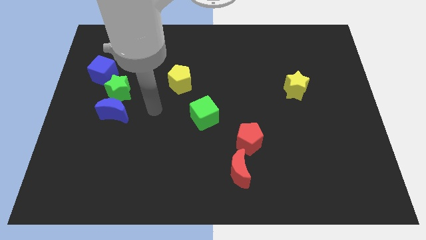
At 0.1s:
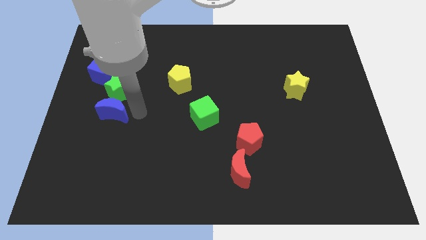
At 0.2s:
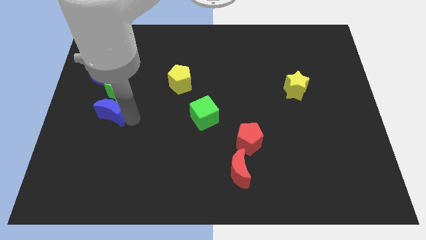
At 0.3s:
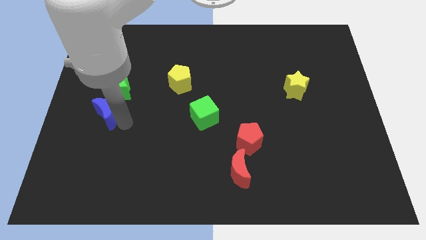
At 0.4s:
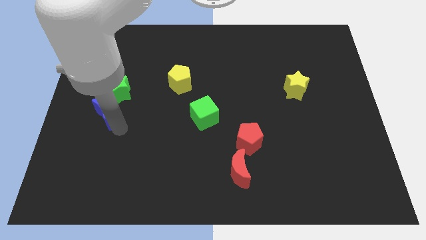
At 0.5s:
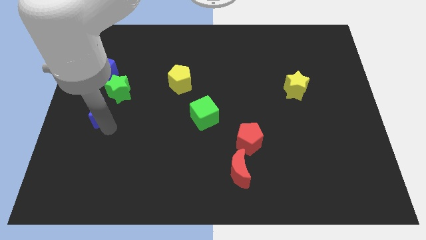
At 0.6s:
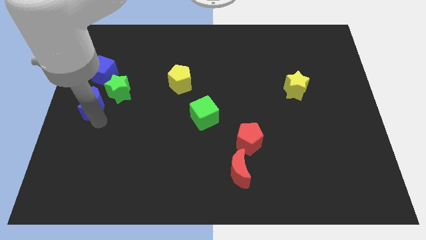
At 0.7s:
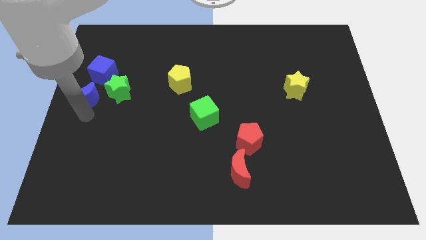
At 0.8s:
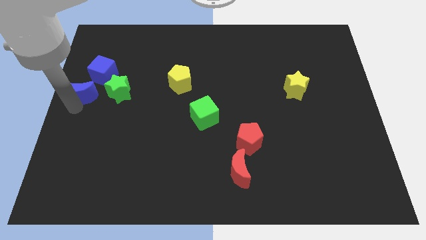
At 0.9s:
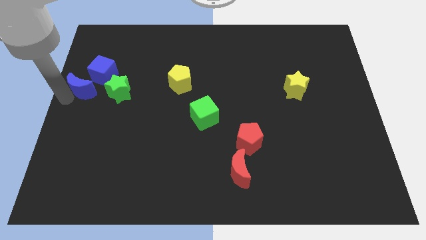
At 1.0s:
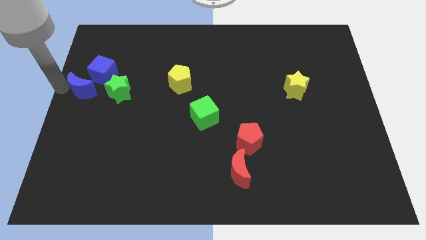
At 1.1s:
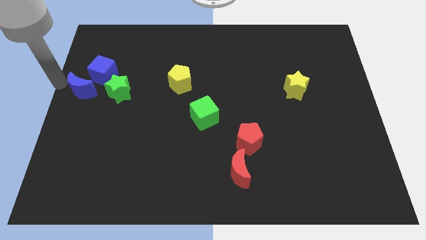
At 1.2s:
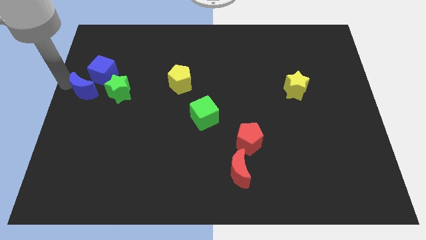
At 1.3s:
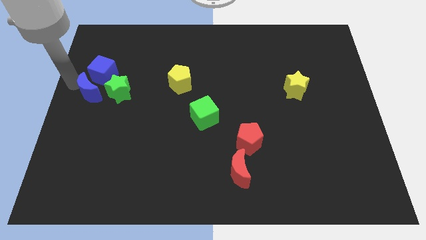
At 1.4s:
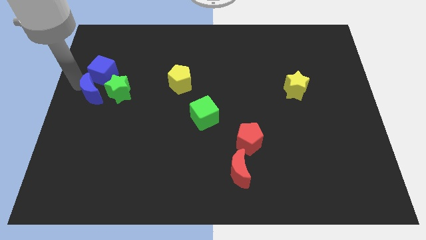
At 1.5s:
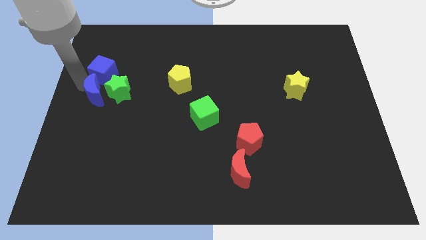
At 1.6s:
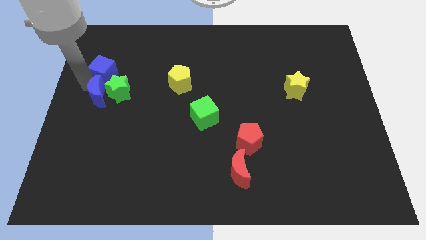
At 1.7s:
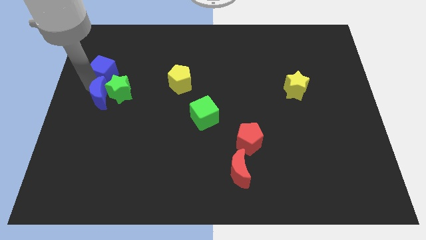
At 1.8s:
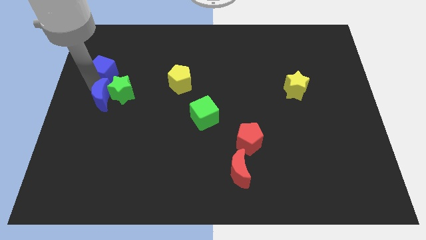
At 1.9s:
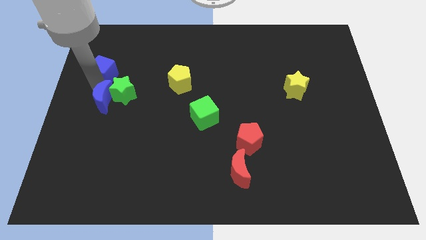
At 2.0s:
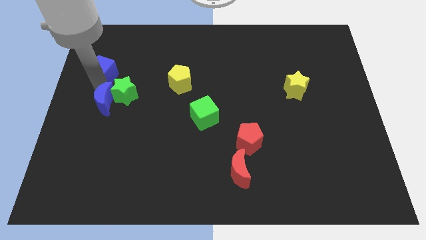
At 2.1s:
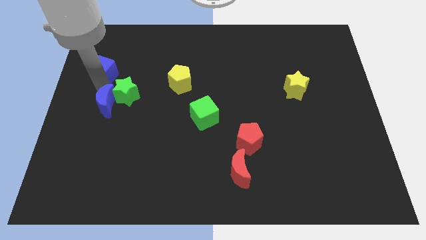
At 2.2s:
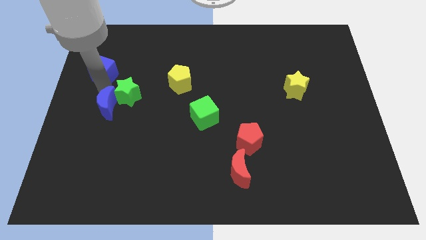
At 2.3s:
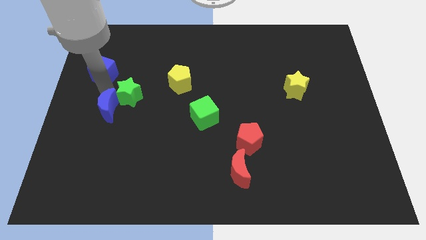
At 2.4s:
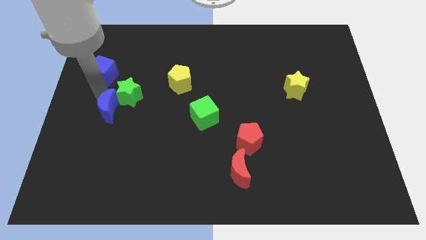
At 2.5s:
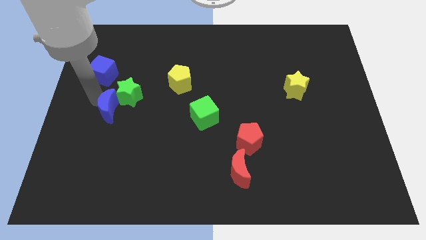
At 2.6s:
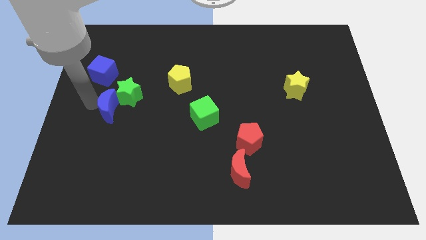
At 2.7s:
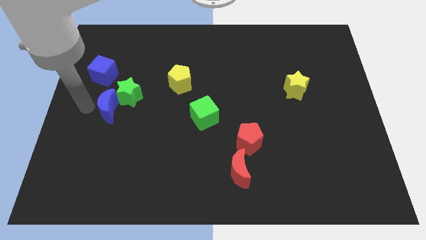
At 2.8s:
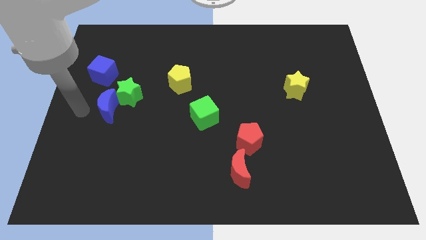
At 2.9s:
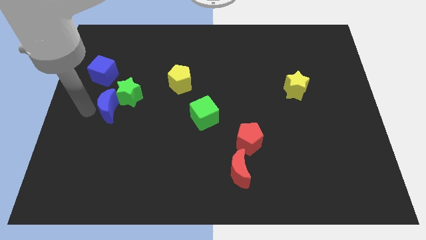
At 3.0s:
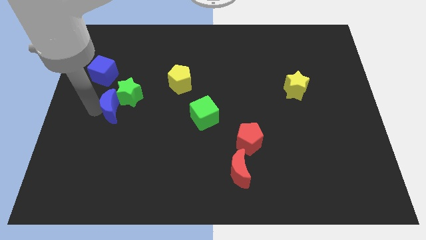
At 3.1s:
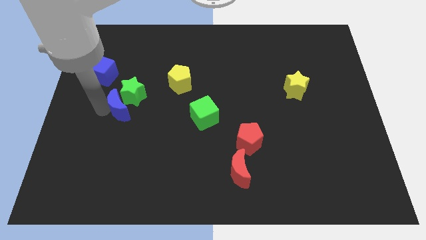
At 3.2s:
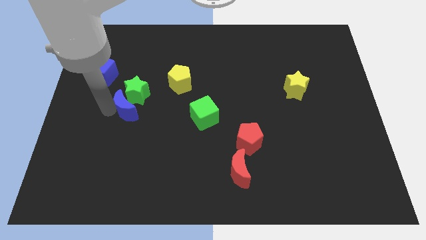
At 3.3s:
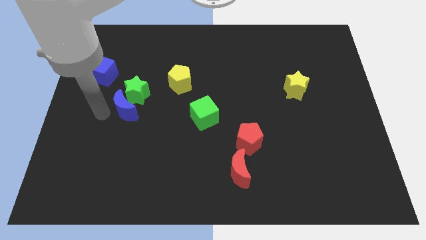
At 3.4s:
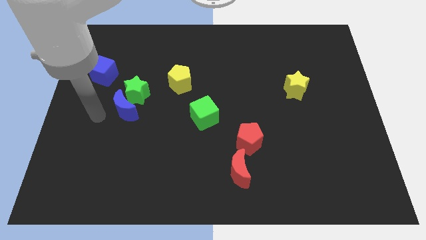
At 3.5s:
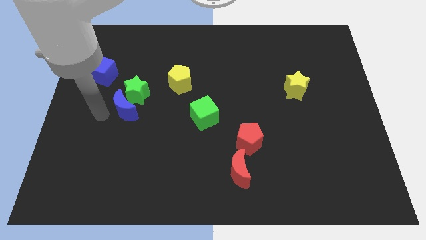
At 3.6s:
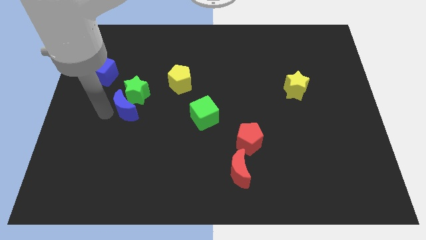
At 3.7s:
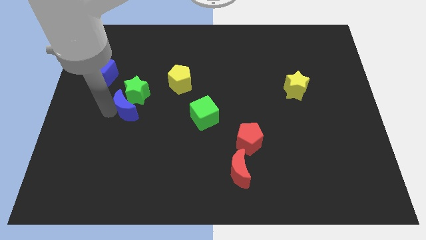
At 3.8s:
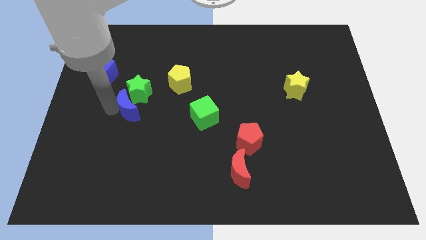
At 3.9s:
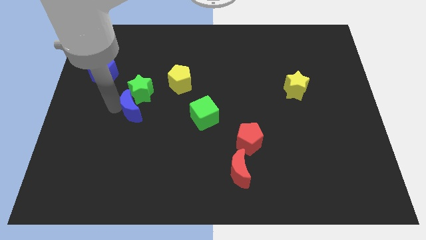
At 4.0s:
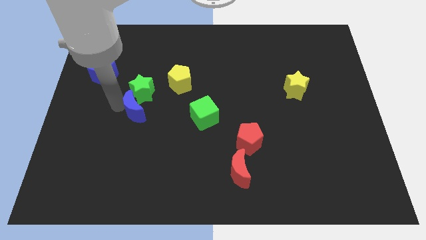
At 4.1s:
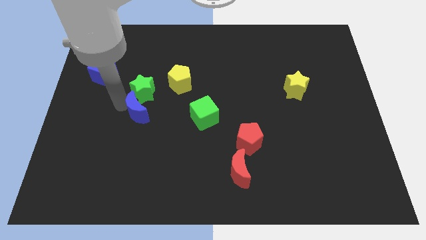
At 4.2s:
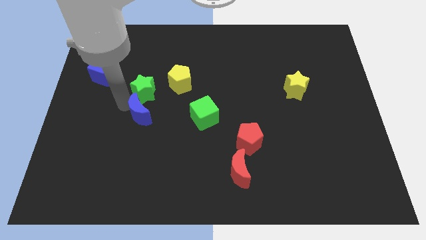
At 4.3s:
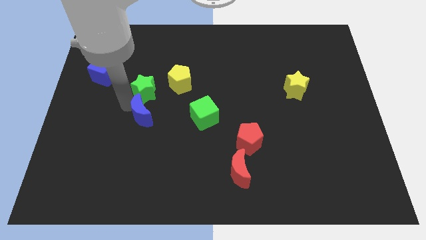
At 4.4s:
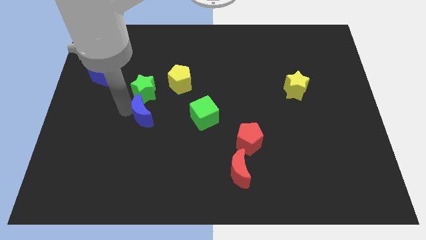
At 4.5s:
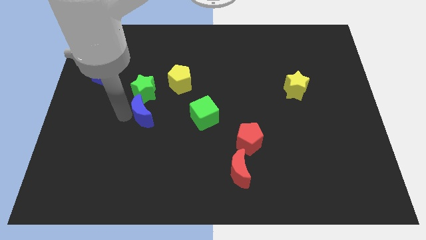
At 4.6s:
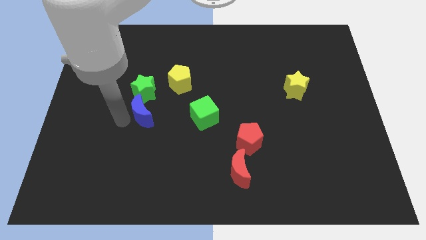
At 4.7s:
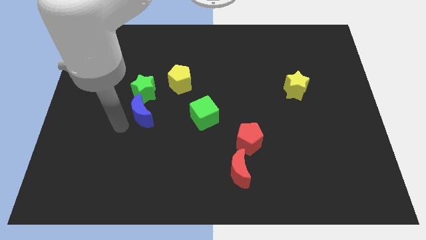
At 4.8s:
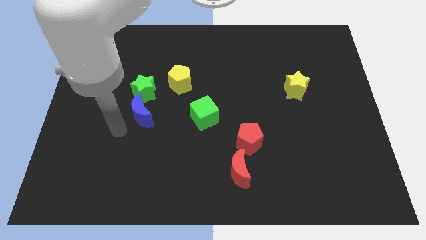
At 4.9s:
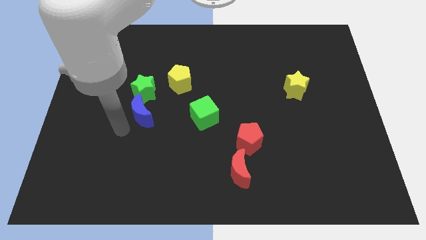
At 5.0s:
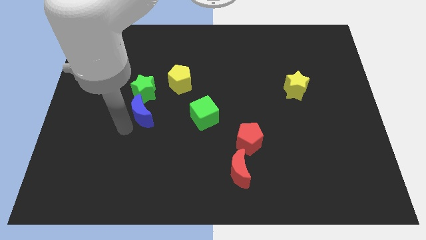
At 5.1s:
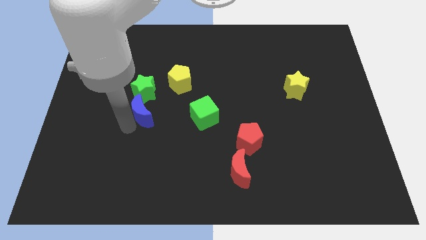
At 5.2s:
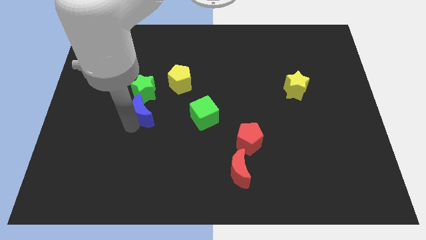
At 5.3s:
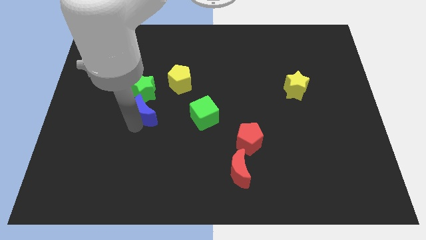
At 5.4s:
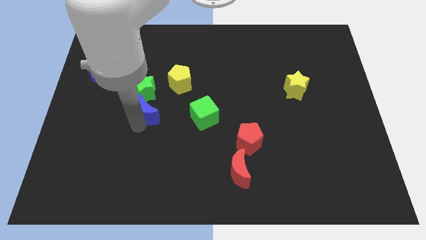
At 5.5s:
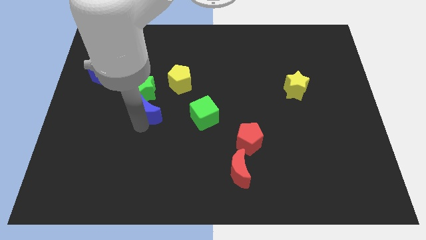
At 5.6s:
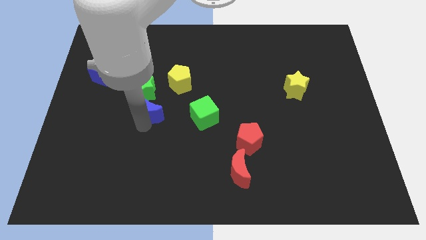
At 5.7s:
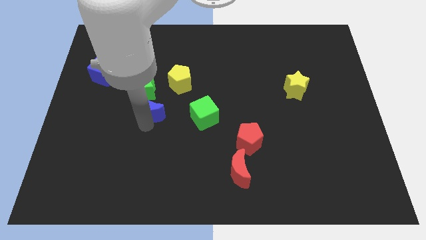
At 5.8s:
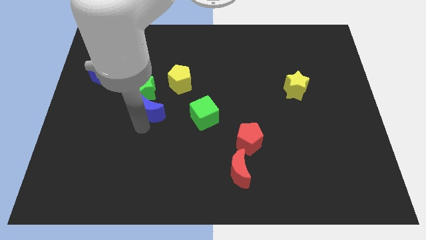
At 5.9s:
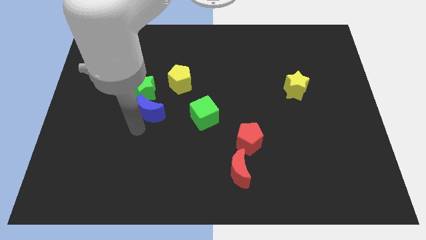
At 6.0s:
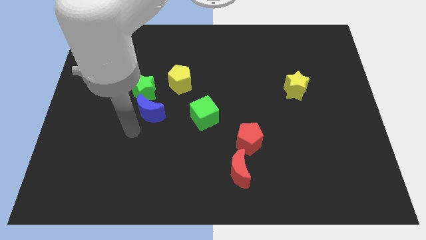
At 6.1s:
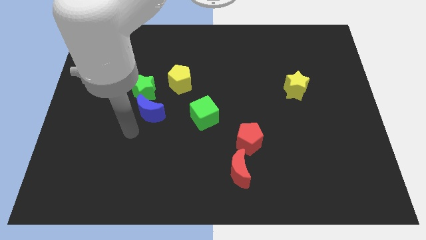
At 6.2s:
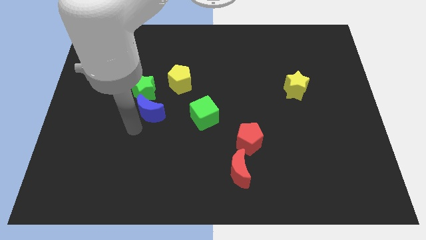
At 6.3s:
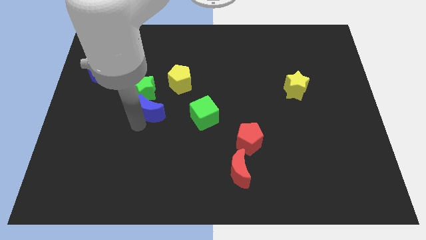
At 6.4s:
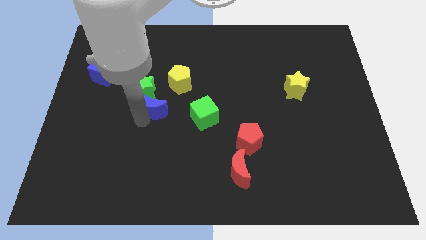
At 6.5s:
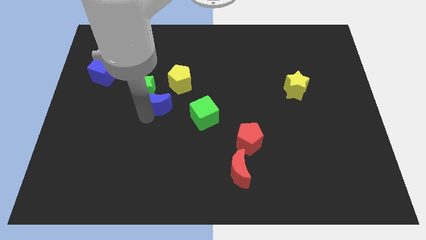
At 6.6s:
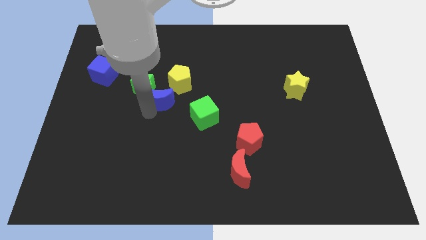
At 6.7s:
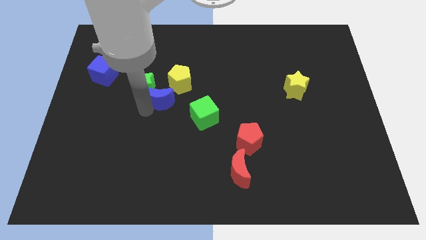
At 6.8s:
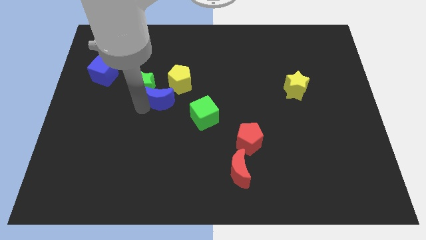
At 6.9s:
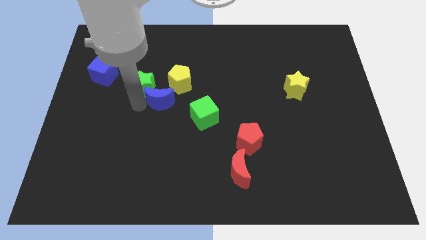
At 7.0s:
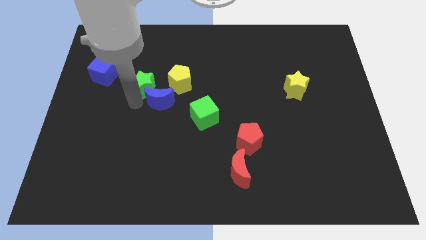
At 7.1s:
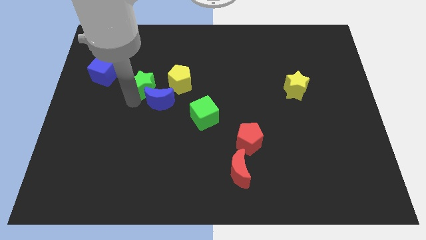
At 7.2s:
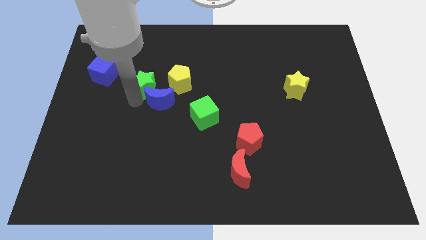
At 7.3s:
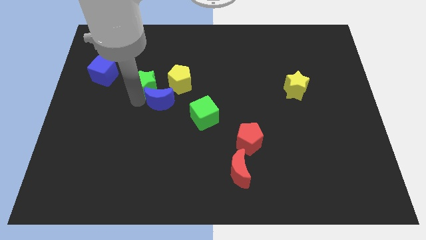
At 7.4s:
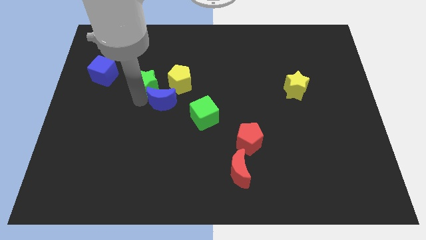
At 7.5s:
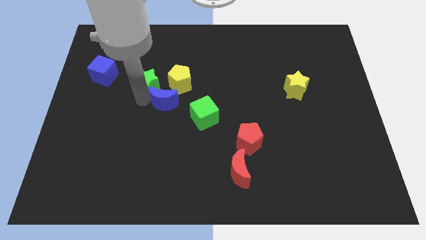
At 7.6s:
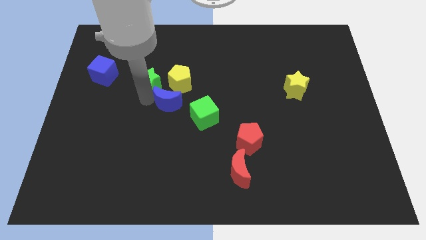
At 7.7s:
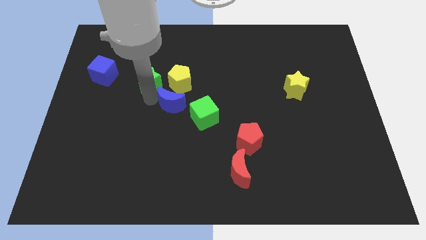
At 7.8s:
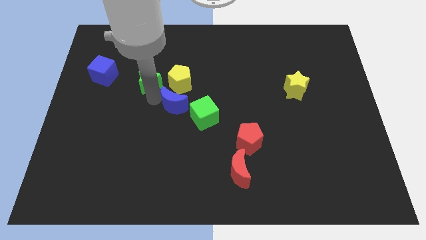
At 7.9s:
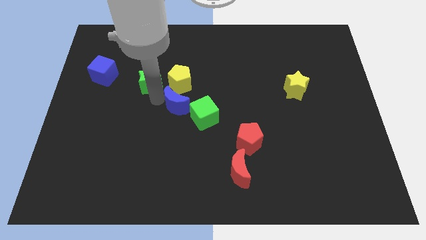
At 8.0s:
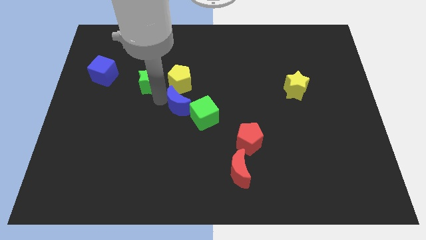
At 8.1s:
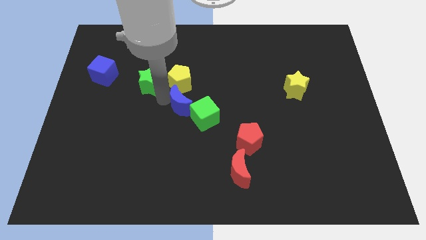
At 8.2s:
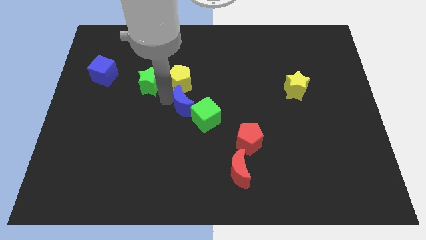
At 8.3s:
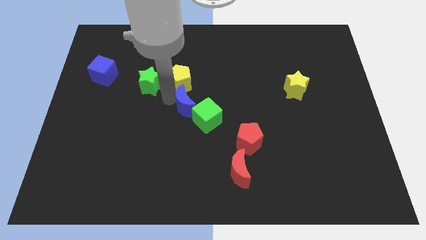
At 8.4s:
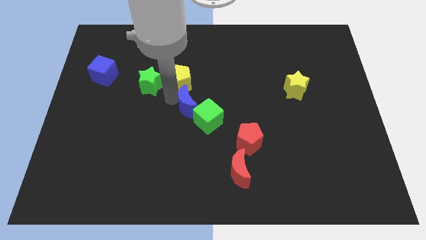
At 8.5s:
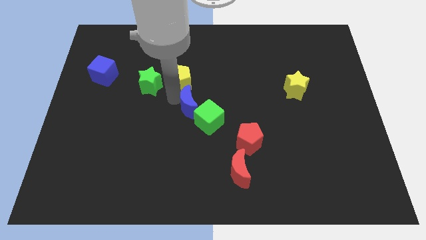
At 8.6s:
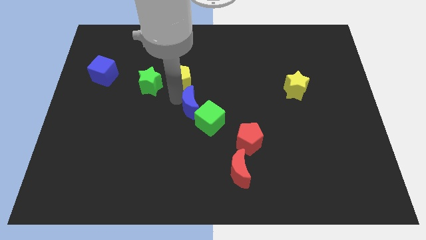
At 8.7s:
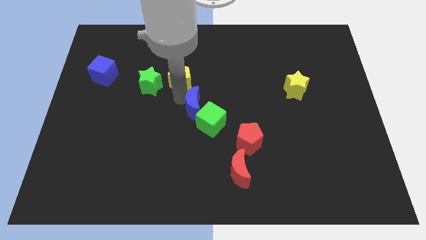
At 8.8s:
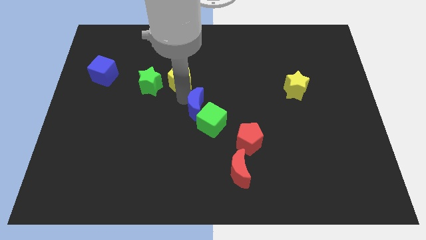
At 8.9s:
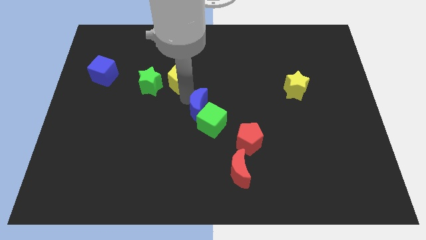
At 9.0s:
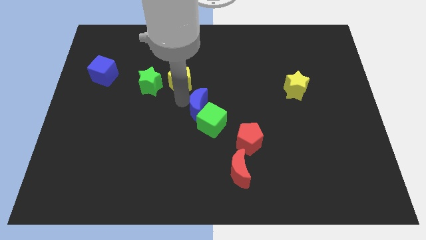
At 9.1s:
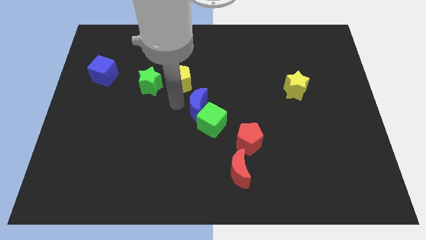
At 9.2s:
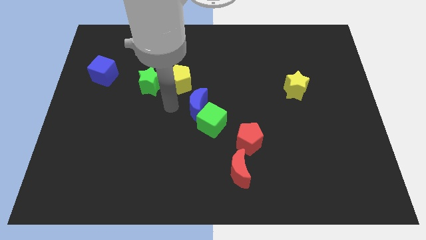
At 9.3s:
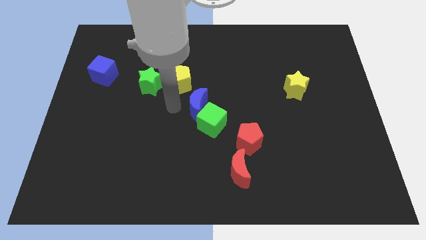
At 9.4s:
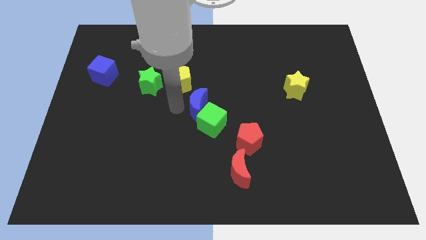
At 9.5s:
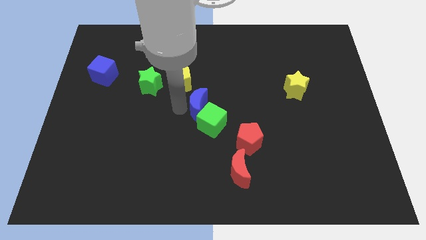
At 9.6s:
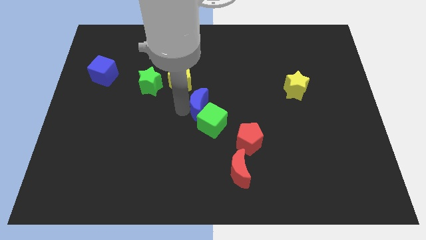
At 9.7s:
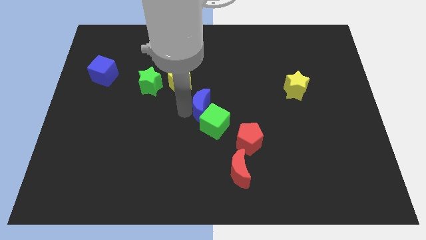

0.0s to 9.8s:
move the blue moon to the right
